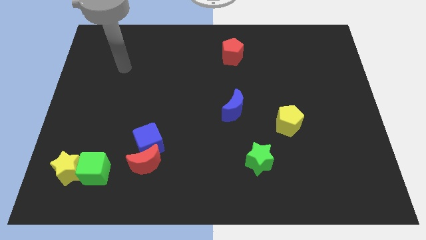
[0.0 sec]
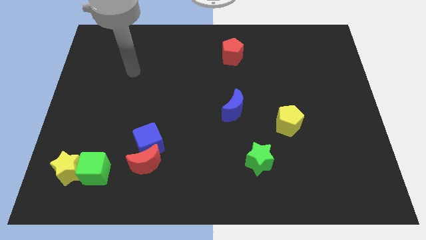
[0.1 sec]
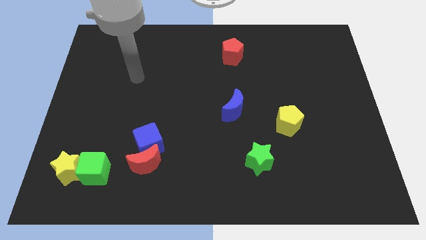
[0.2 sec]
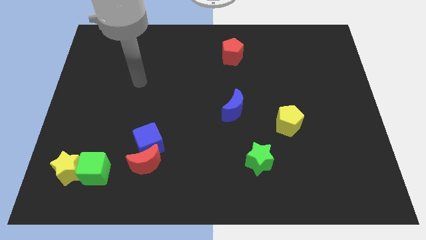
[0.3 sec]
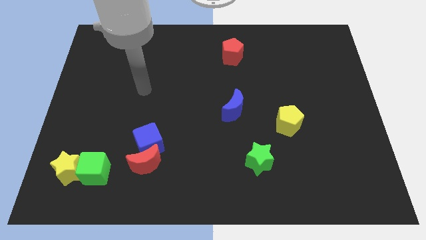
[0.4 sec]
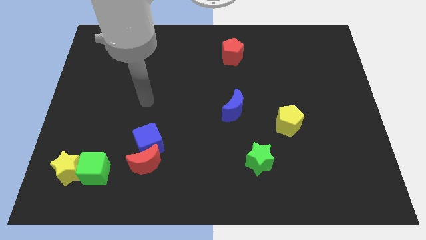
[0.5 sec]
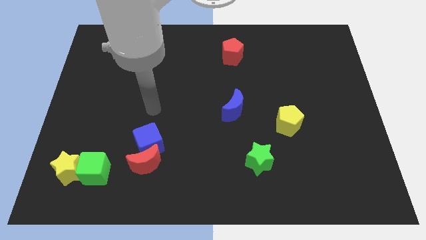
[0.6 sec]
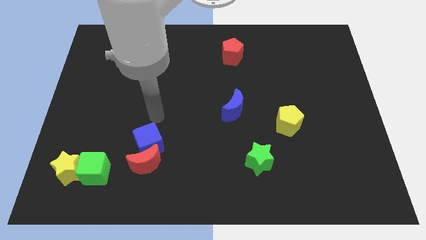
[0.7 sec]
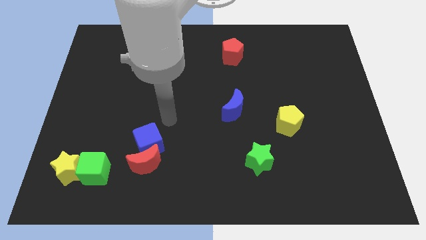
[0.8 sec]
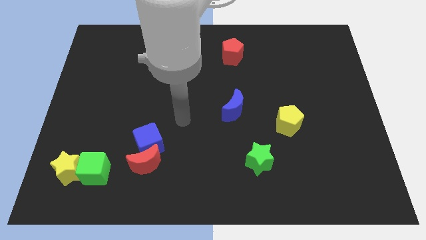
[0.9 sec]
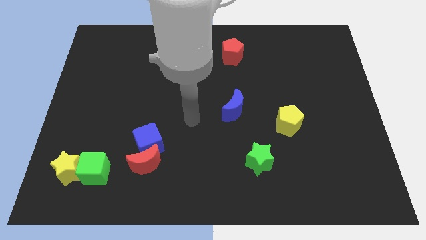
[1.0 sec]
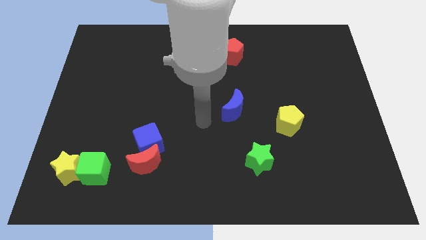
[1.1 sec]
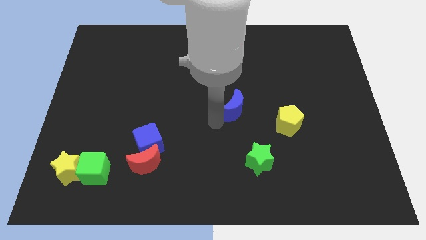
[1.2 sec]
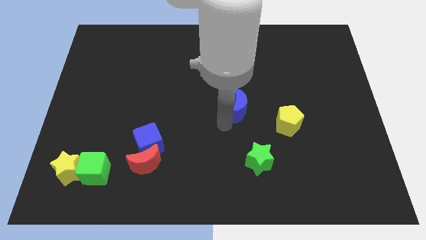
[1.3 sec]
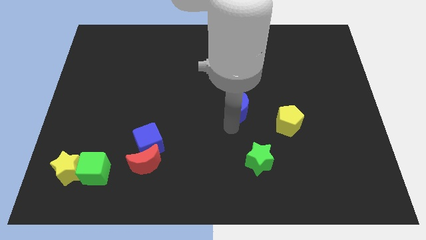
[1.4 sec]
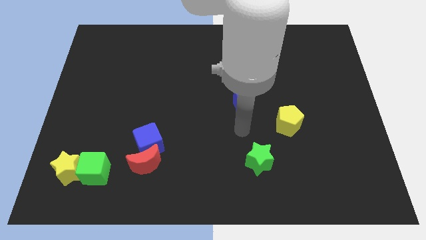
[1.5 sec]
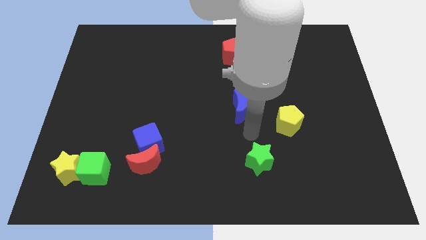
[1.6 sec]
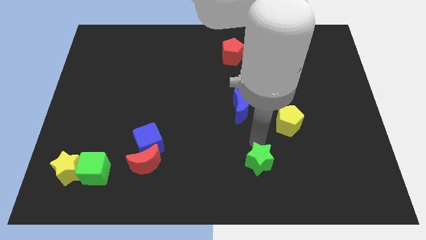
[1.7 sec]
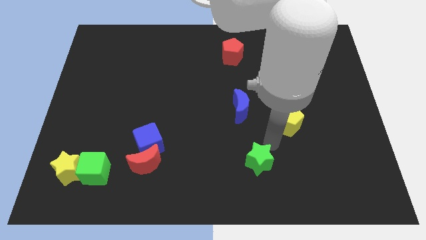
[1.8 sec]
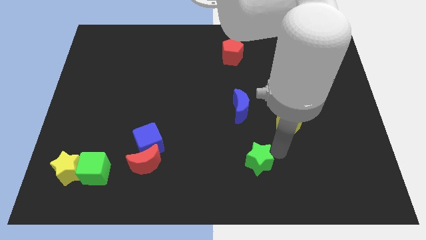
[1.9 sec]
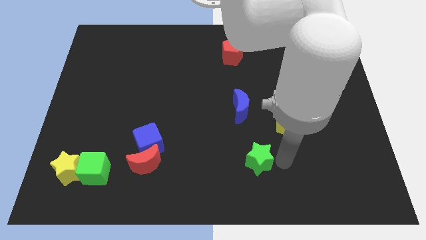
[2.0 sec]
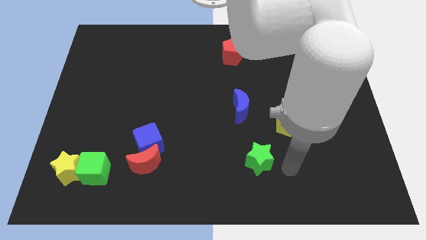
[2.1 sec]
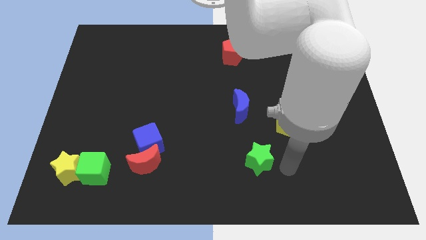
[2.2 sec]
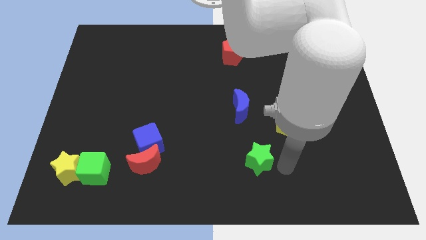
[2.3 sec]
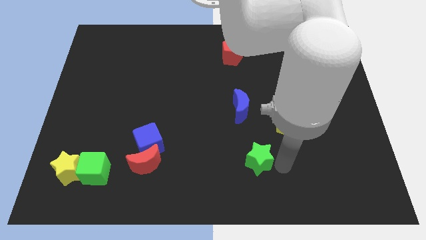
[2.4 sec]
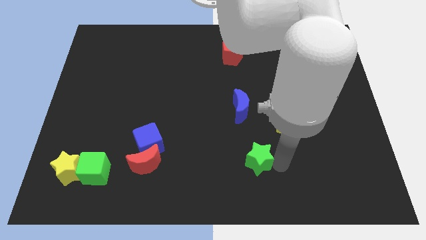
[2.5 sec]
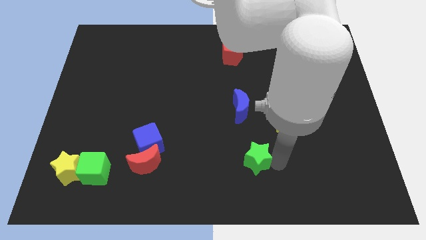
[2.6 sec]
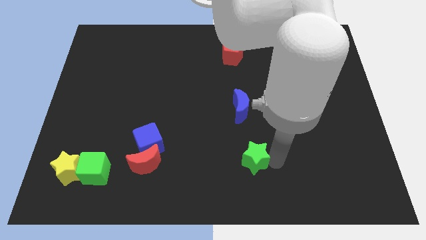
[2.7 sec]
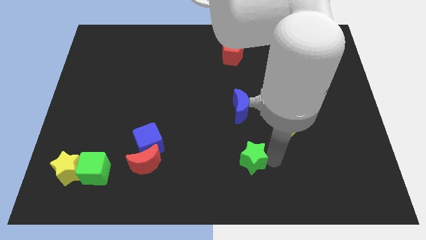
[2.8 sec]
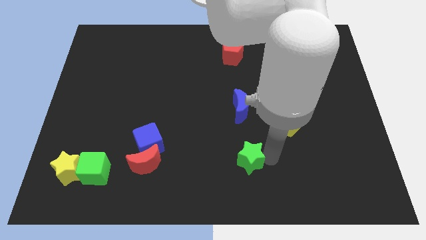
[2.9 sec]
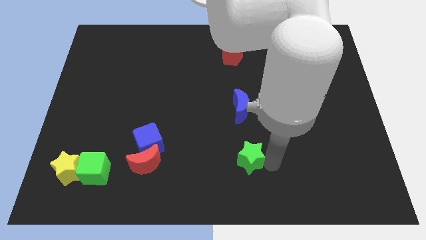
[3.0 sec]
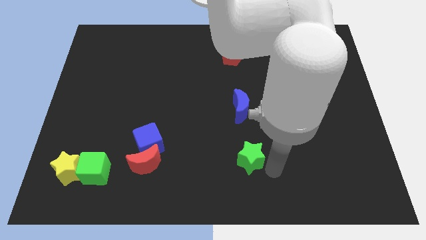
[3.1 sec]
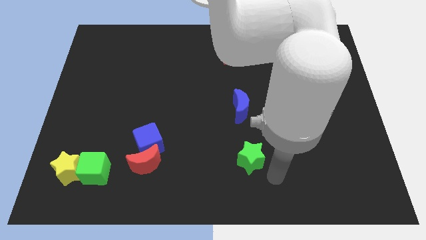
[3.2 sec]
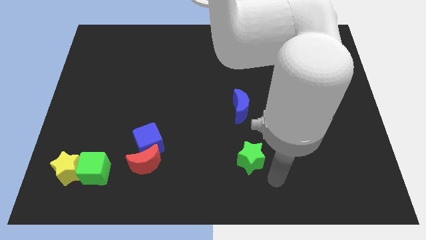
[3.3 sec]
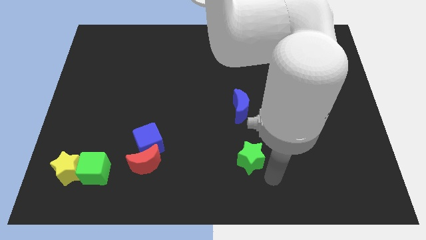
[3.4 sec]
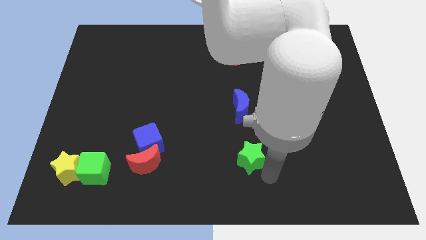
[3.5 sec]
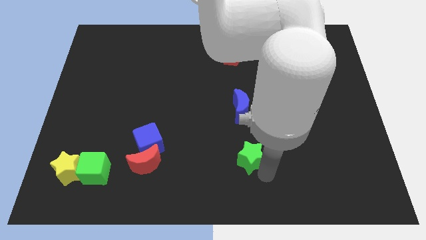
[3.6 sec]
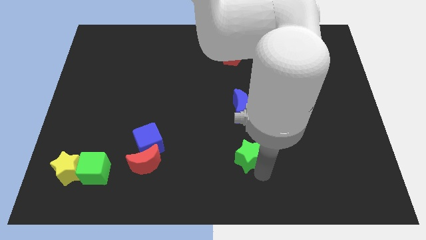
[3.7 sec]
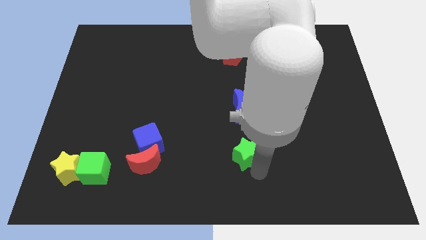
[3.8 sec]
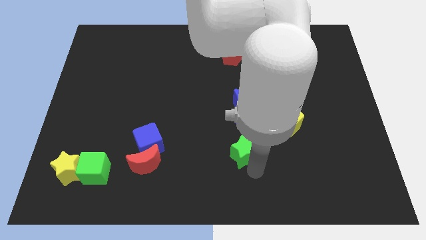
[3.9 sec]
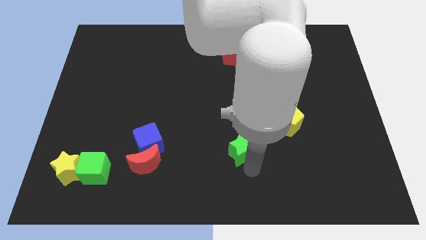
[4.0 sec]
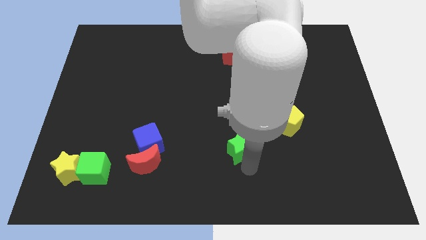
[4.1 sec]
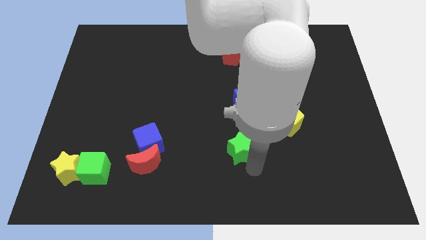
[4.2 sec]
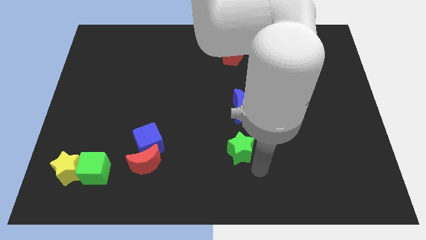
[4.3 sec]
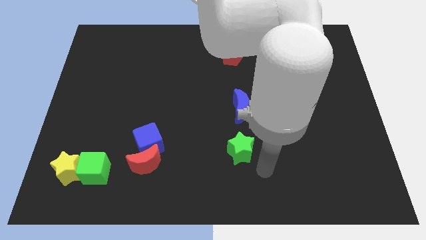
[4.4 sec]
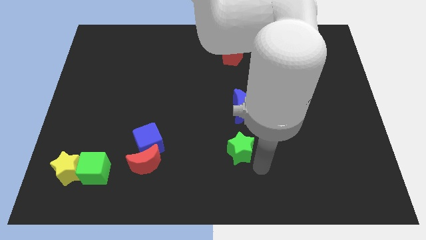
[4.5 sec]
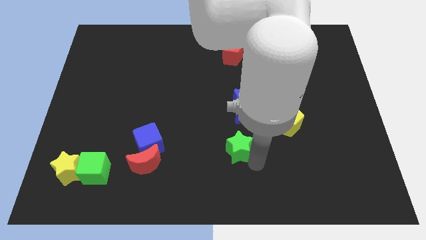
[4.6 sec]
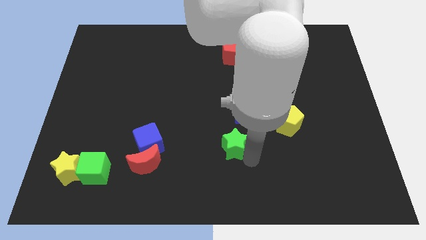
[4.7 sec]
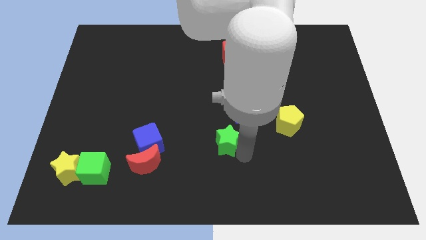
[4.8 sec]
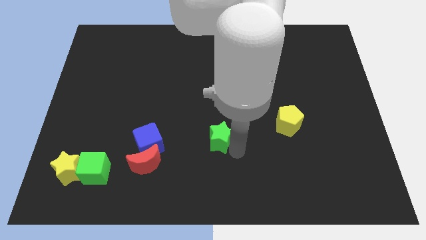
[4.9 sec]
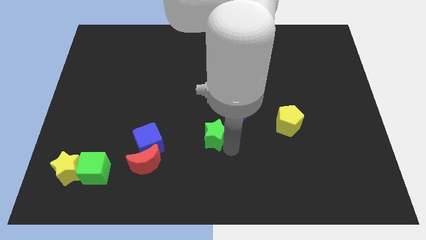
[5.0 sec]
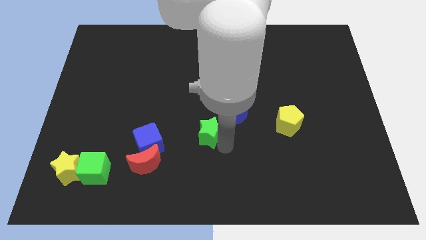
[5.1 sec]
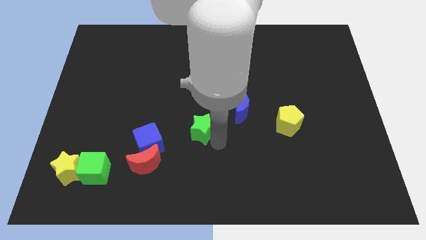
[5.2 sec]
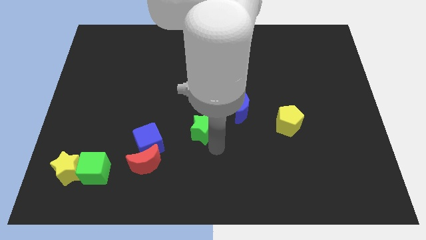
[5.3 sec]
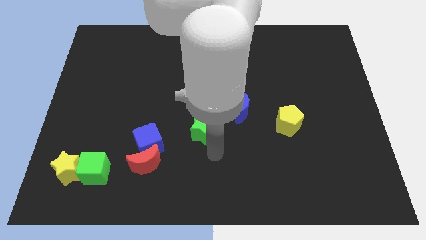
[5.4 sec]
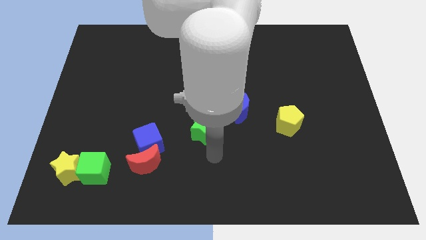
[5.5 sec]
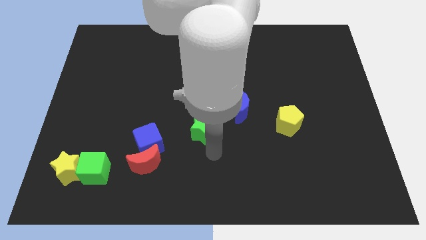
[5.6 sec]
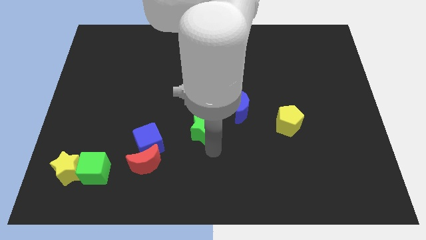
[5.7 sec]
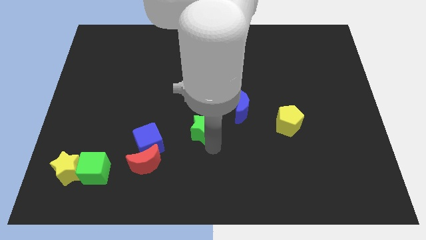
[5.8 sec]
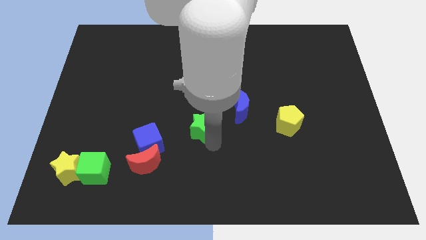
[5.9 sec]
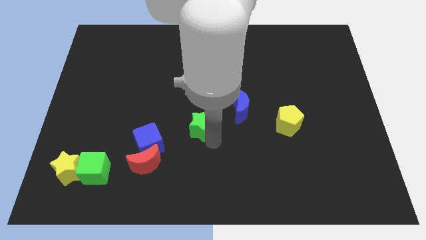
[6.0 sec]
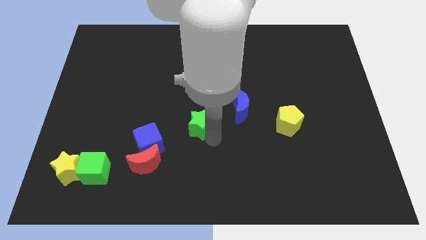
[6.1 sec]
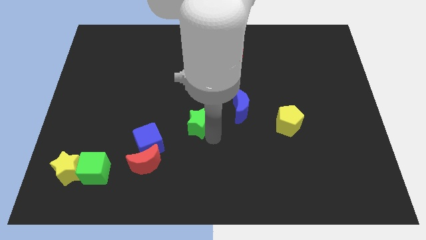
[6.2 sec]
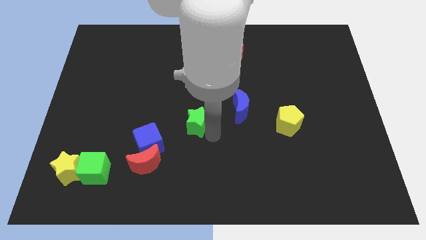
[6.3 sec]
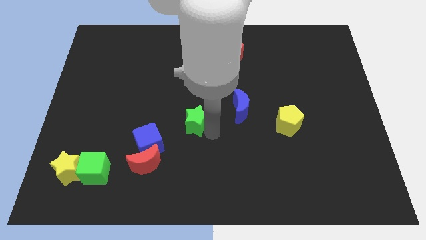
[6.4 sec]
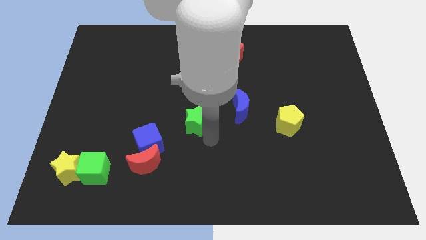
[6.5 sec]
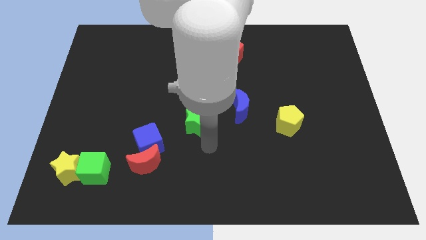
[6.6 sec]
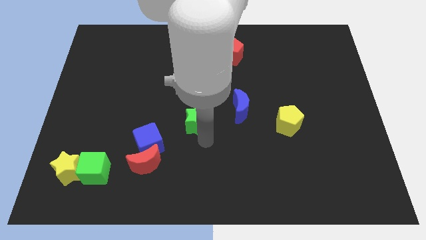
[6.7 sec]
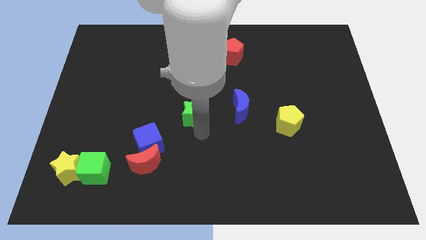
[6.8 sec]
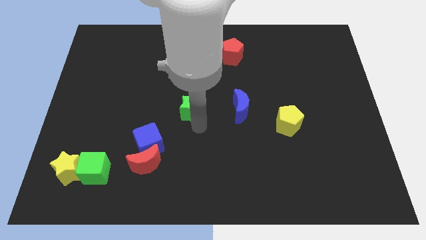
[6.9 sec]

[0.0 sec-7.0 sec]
move the green star up and then left

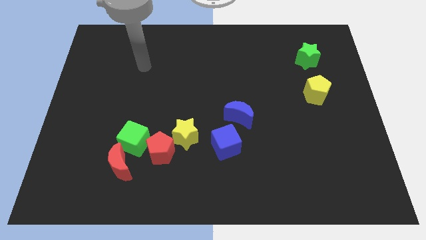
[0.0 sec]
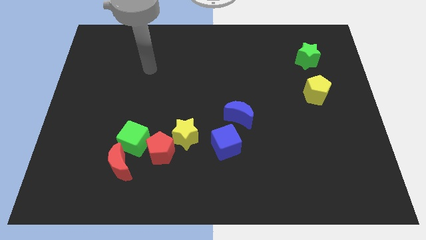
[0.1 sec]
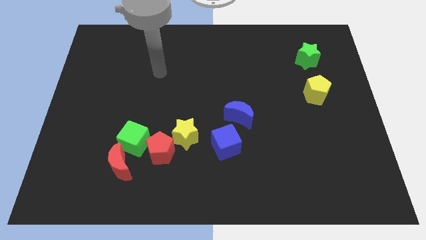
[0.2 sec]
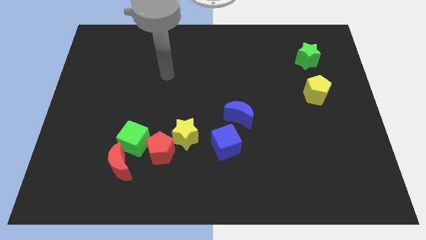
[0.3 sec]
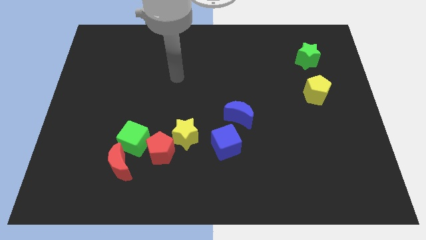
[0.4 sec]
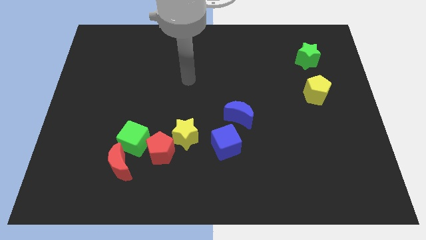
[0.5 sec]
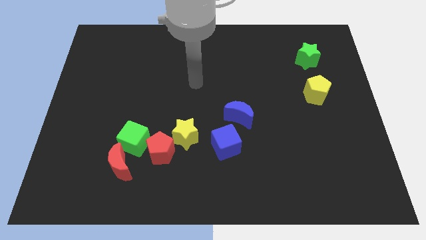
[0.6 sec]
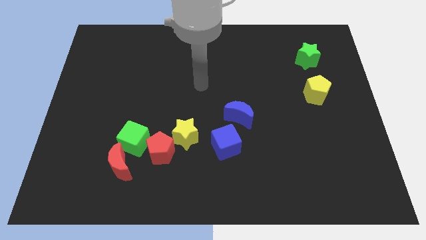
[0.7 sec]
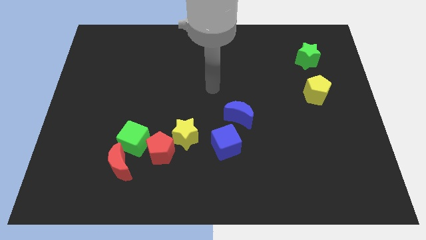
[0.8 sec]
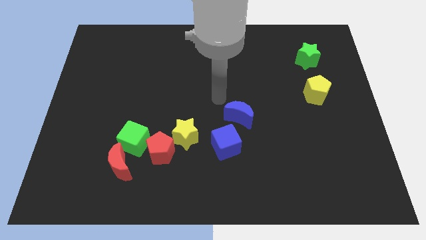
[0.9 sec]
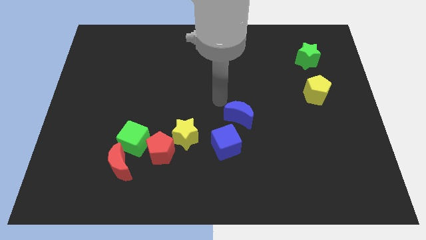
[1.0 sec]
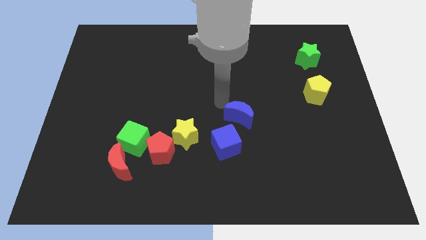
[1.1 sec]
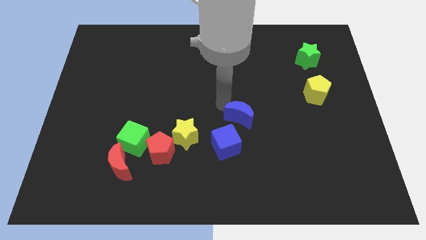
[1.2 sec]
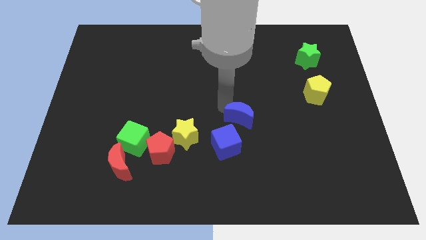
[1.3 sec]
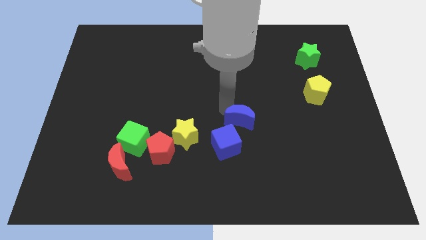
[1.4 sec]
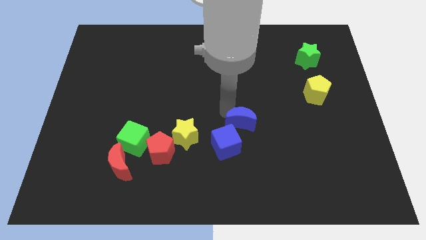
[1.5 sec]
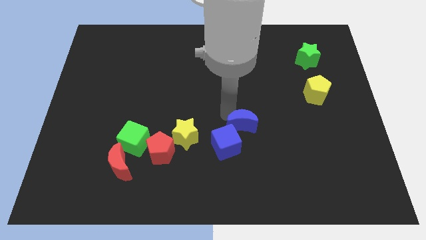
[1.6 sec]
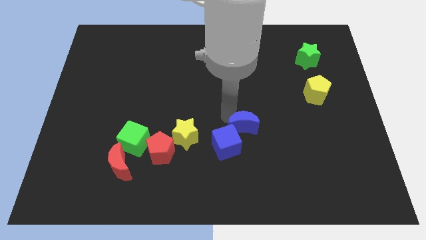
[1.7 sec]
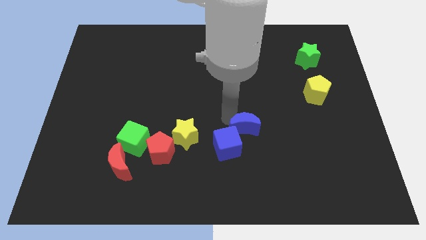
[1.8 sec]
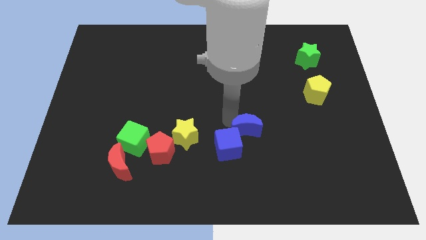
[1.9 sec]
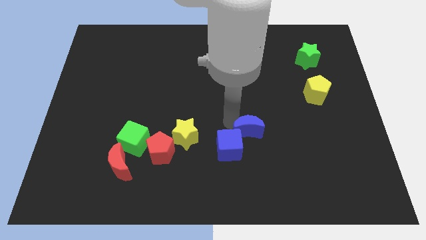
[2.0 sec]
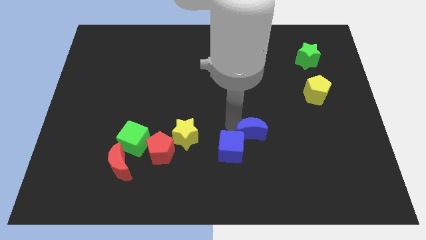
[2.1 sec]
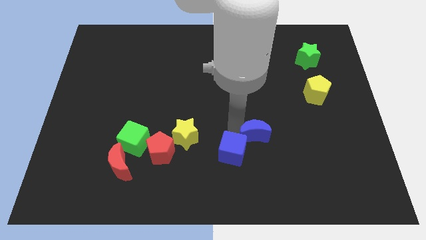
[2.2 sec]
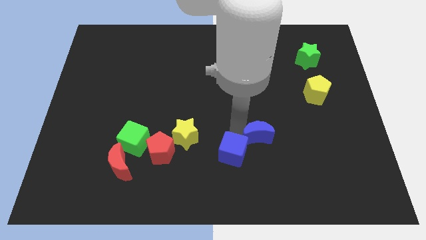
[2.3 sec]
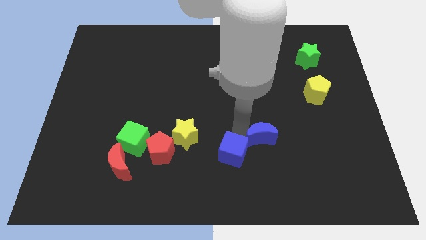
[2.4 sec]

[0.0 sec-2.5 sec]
slide the blue moon a little downwards and then to the right
